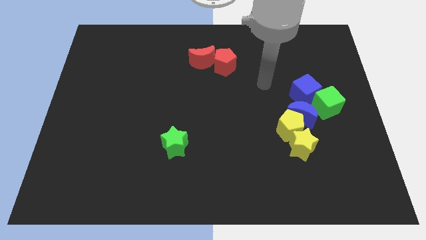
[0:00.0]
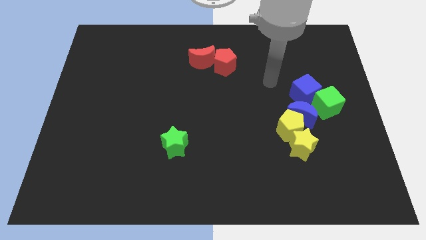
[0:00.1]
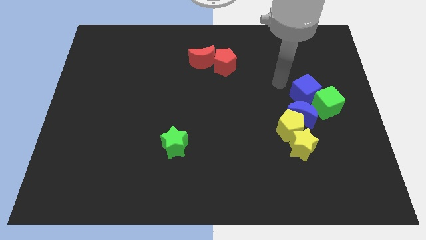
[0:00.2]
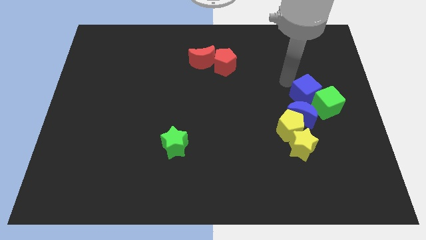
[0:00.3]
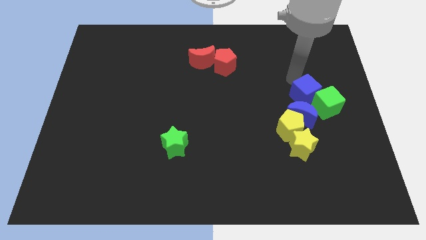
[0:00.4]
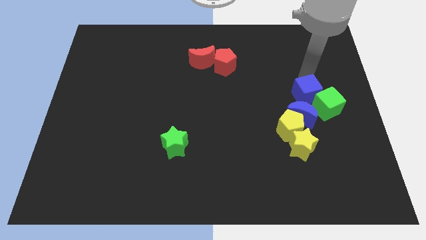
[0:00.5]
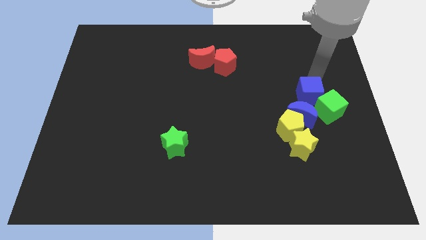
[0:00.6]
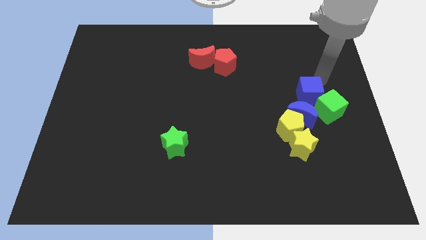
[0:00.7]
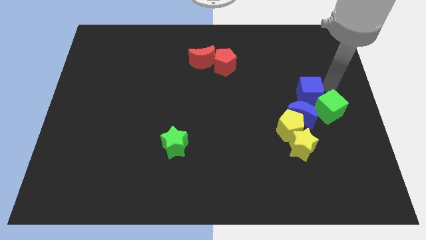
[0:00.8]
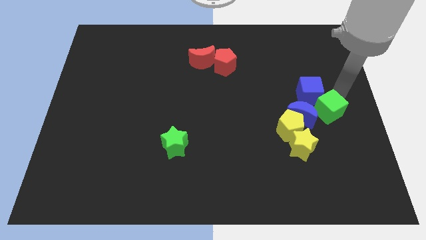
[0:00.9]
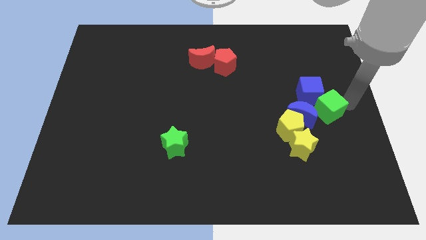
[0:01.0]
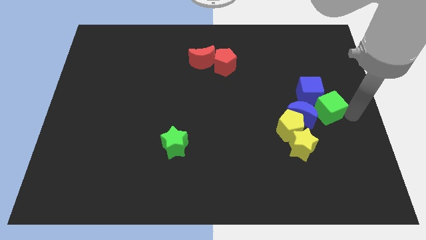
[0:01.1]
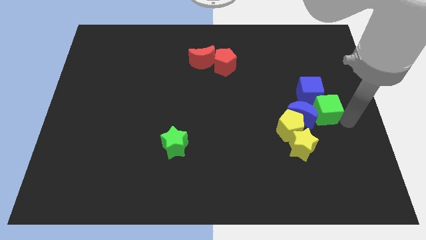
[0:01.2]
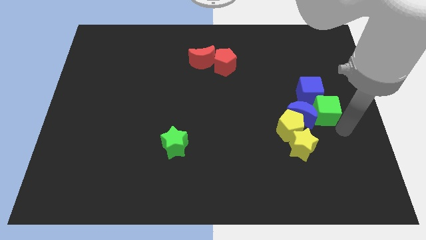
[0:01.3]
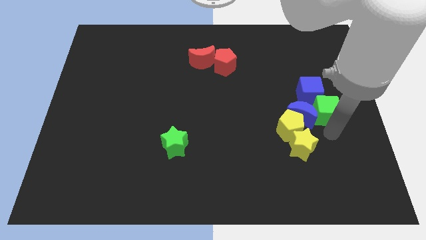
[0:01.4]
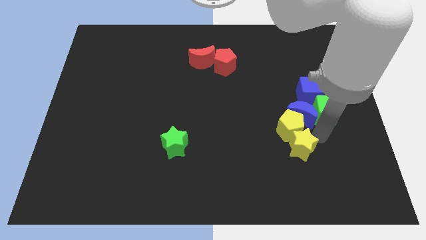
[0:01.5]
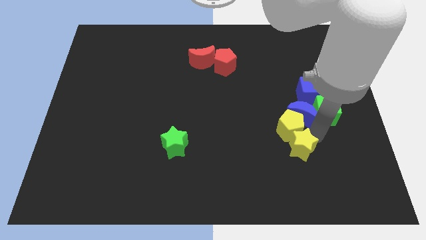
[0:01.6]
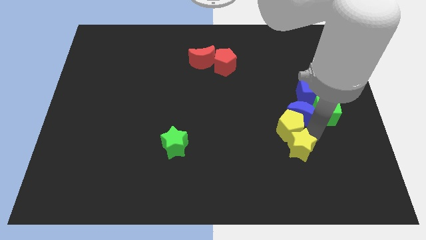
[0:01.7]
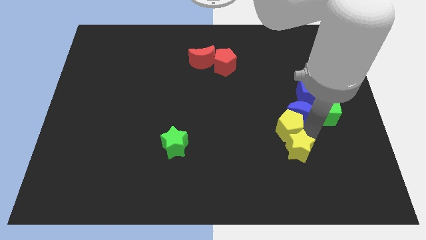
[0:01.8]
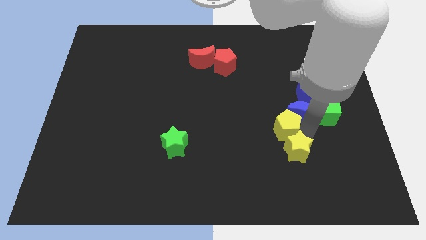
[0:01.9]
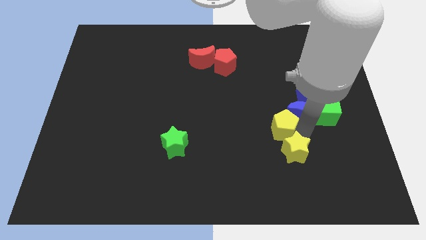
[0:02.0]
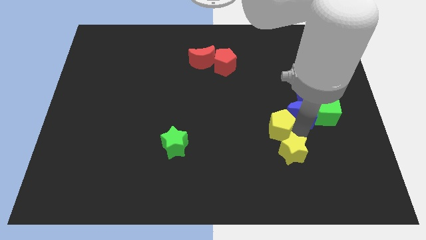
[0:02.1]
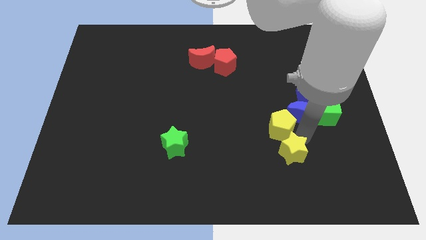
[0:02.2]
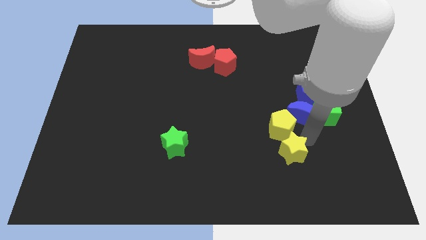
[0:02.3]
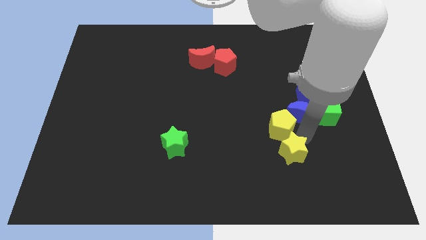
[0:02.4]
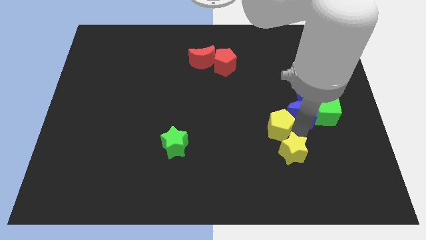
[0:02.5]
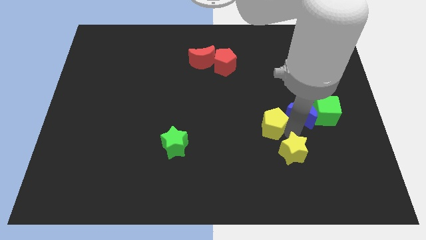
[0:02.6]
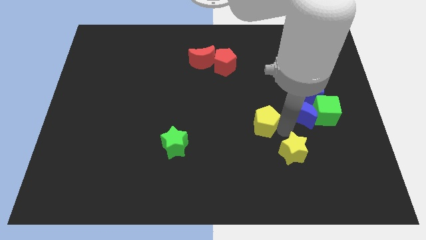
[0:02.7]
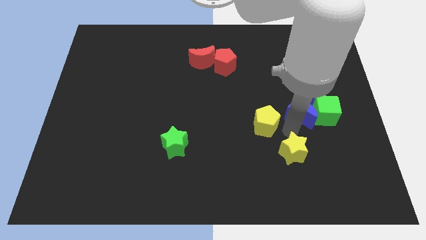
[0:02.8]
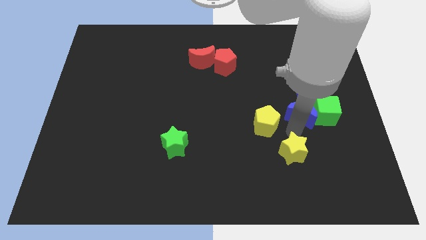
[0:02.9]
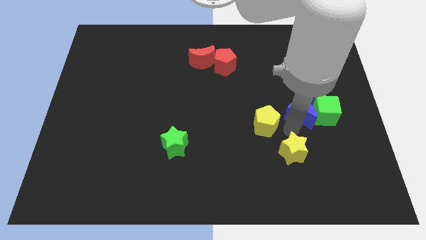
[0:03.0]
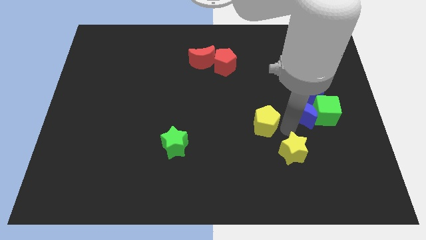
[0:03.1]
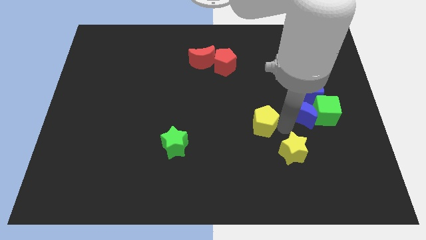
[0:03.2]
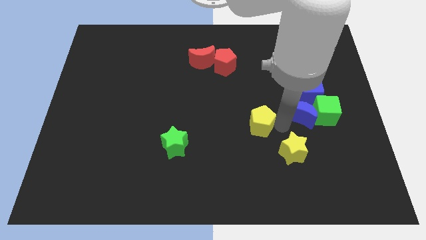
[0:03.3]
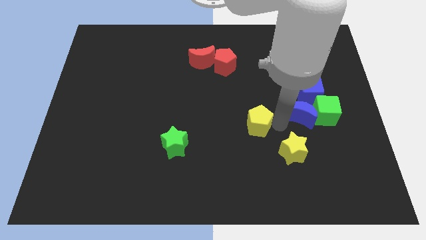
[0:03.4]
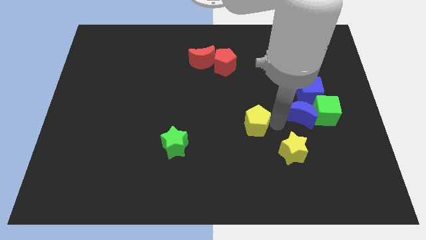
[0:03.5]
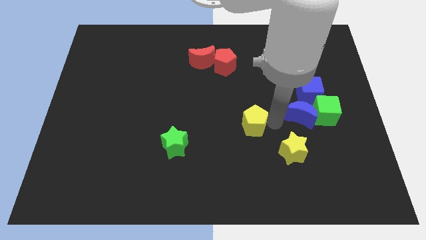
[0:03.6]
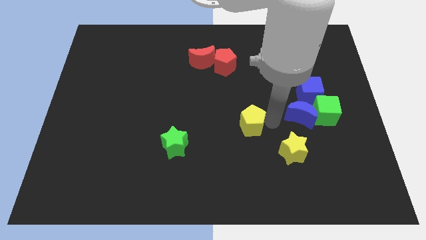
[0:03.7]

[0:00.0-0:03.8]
move the yellow pentagon away from the blue moon and yellow star

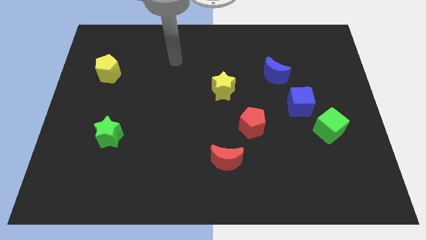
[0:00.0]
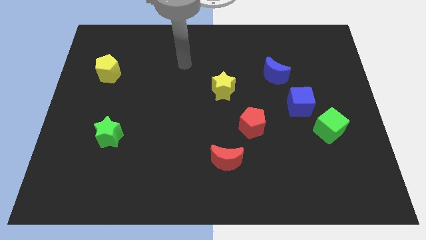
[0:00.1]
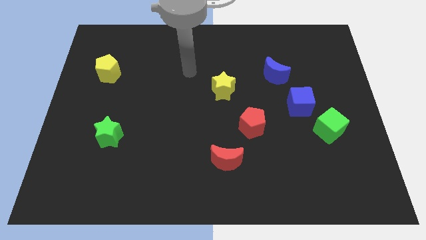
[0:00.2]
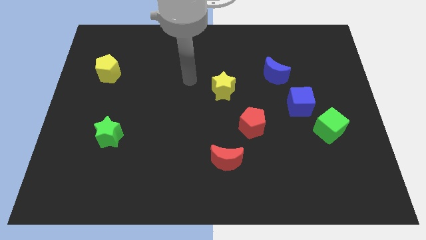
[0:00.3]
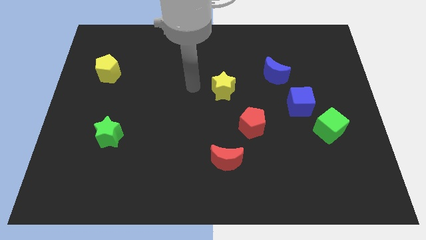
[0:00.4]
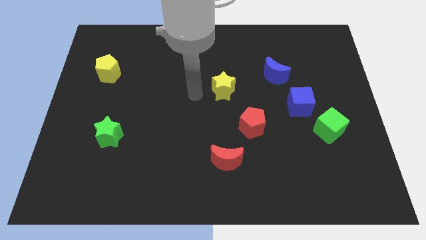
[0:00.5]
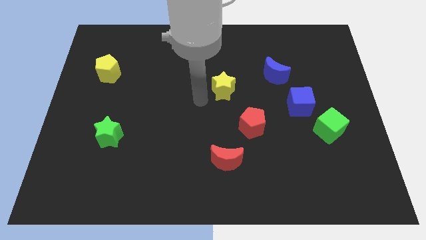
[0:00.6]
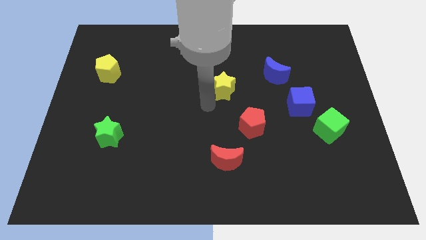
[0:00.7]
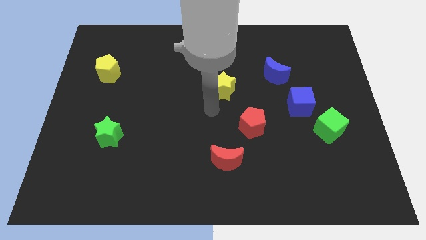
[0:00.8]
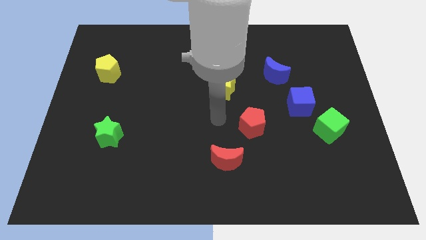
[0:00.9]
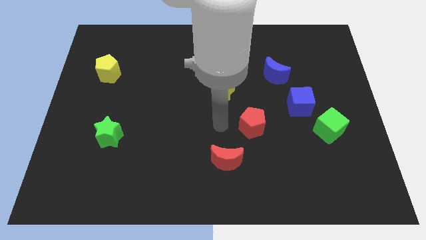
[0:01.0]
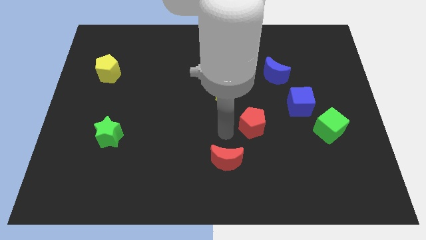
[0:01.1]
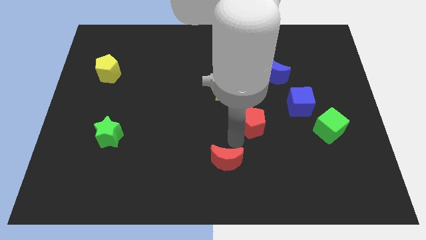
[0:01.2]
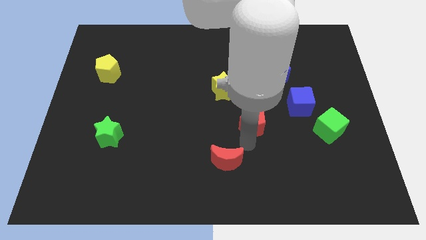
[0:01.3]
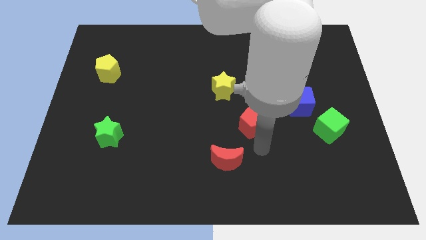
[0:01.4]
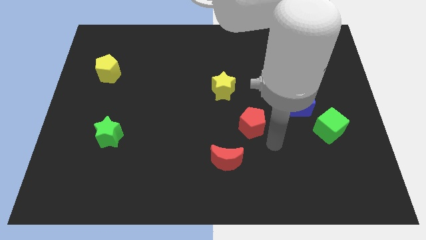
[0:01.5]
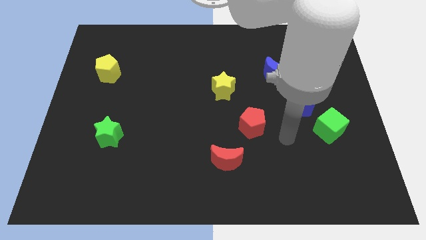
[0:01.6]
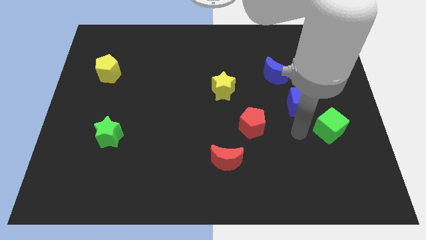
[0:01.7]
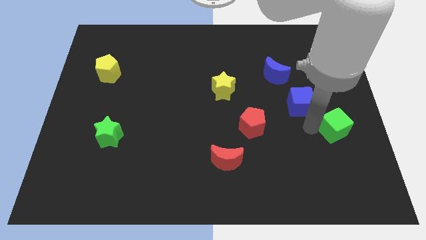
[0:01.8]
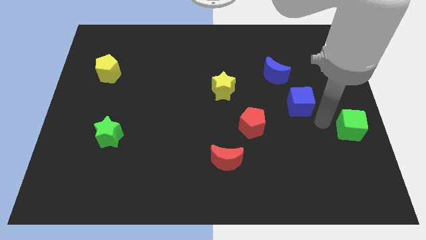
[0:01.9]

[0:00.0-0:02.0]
pull the blue cube apart from the green cube

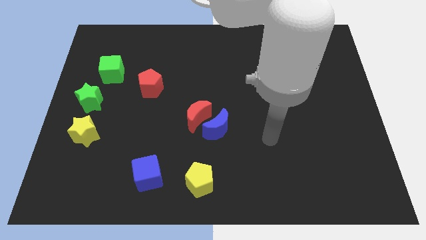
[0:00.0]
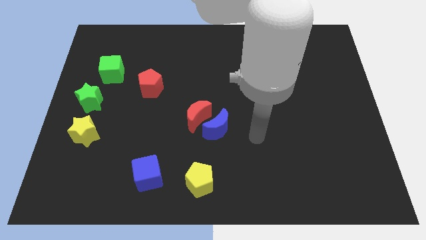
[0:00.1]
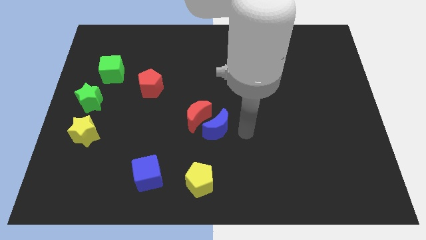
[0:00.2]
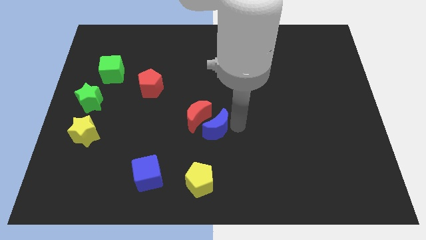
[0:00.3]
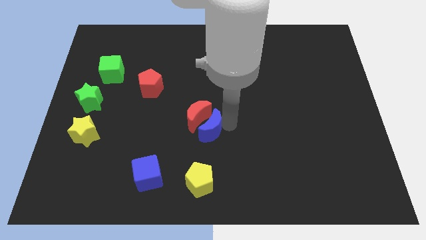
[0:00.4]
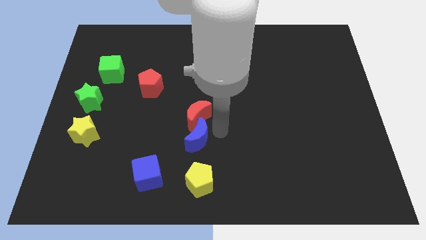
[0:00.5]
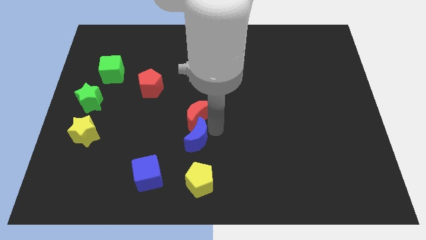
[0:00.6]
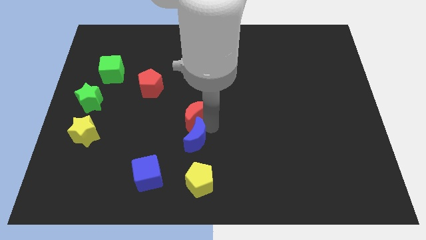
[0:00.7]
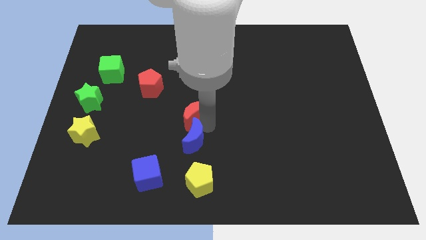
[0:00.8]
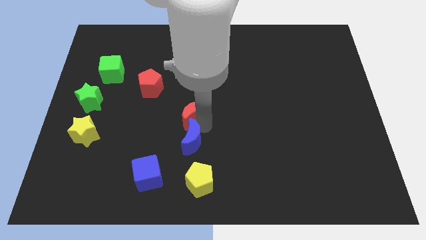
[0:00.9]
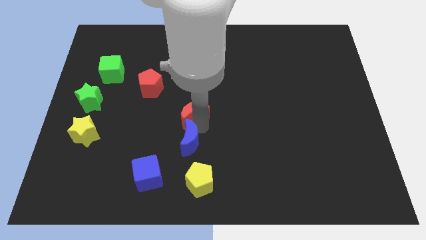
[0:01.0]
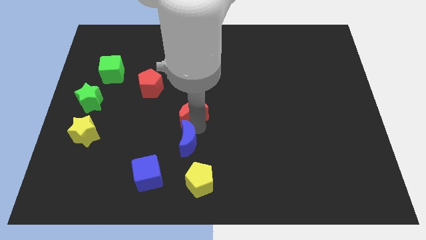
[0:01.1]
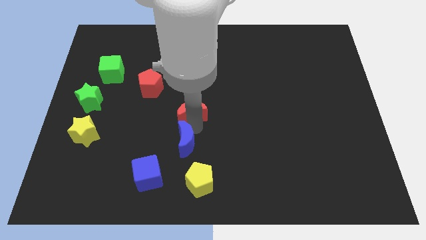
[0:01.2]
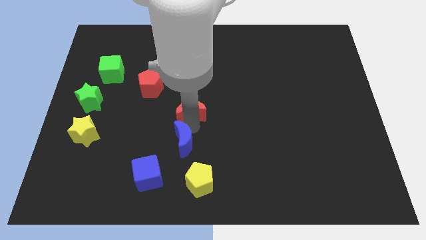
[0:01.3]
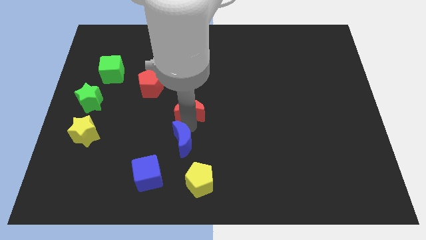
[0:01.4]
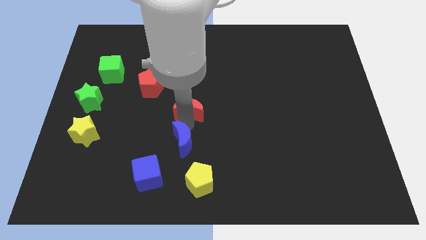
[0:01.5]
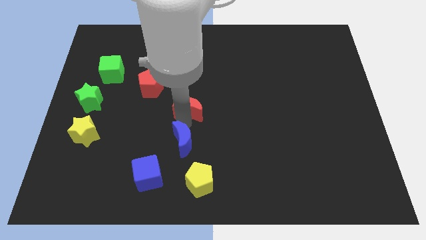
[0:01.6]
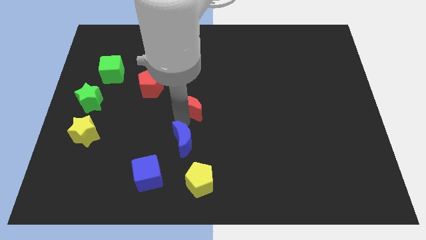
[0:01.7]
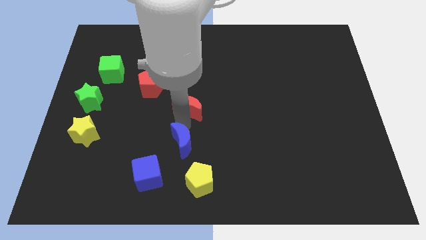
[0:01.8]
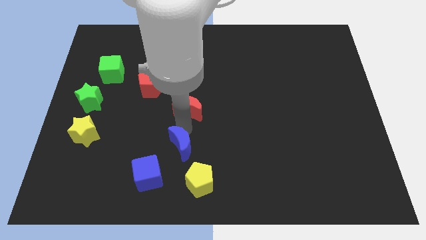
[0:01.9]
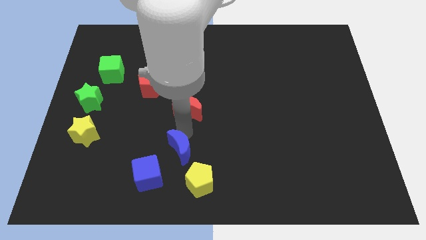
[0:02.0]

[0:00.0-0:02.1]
separate the red moon from the blue moon

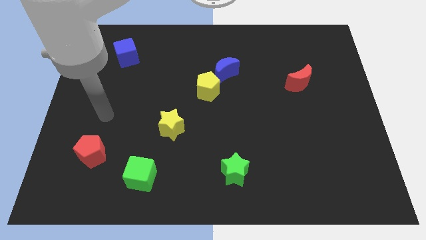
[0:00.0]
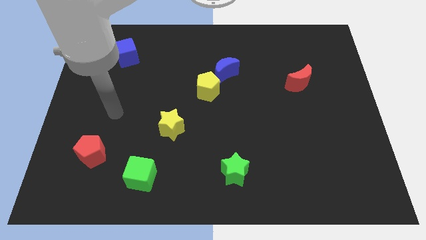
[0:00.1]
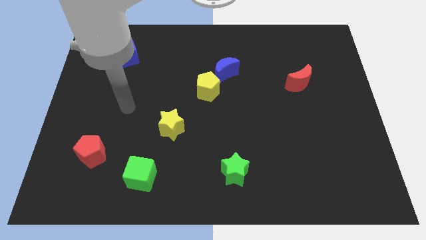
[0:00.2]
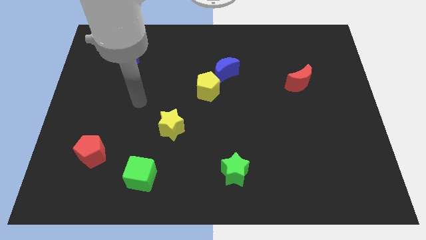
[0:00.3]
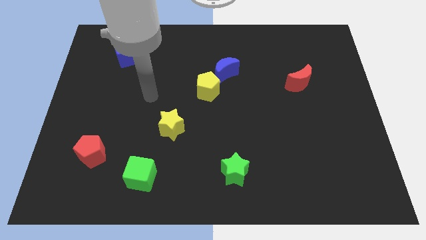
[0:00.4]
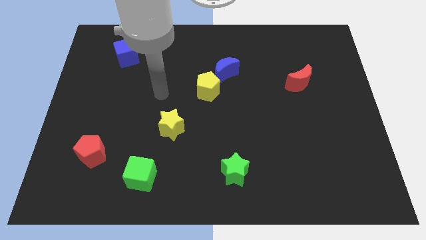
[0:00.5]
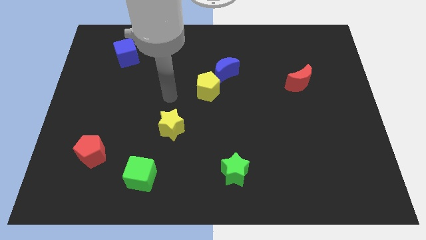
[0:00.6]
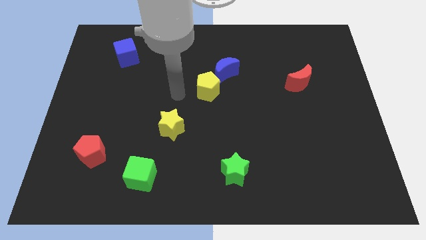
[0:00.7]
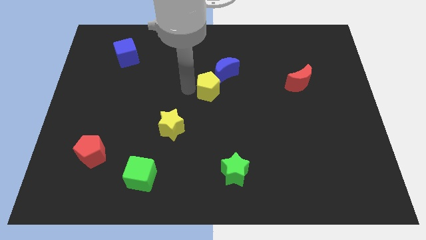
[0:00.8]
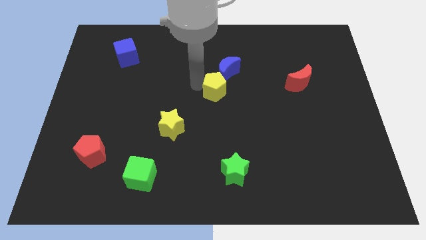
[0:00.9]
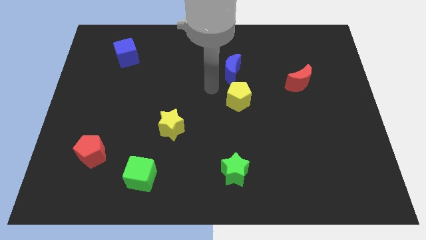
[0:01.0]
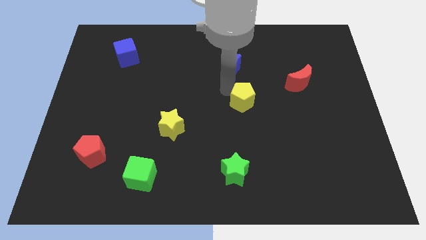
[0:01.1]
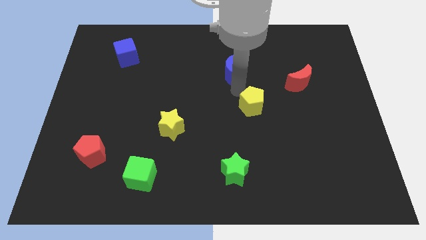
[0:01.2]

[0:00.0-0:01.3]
move the blue moon away from the yellow pentagon

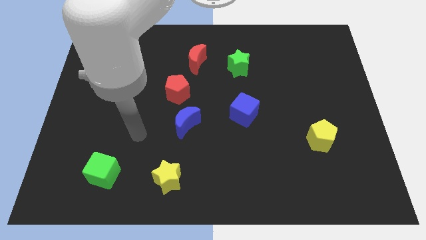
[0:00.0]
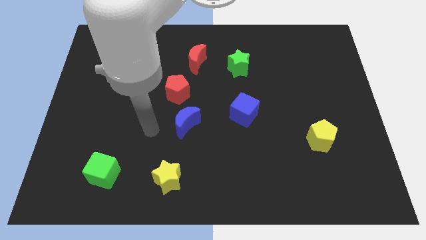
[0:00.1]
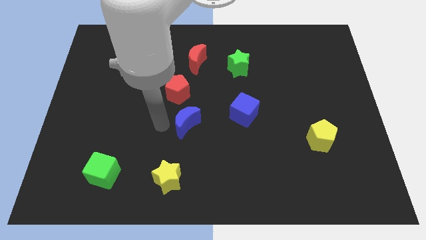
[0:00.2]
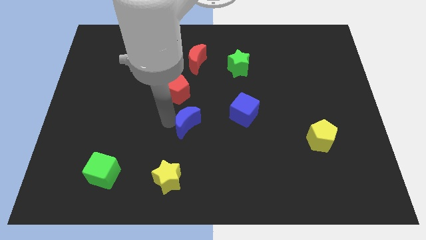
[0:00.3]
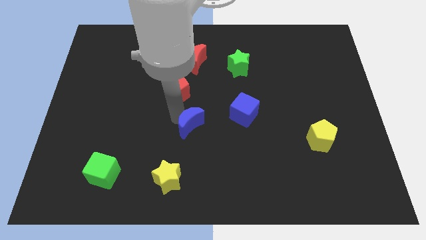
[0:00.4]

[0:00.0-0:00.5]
pull the red pentagon apart from the blue moon
